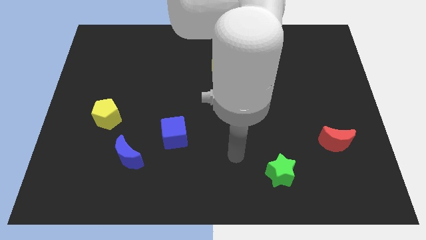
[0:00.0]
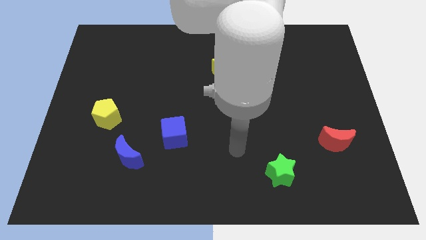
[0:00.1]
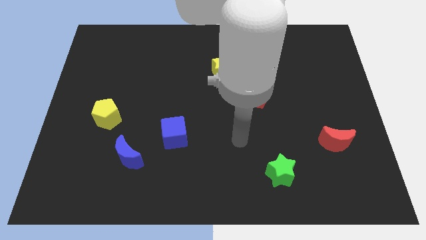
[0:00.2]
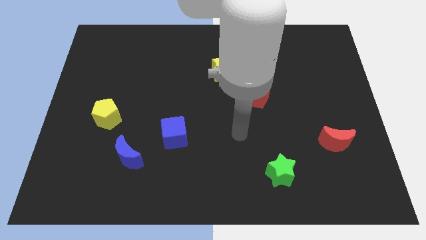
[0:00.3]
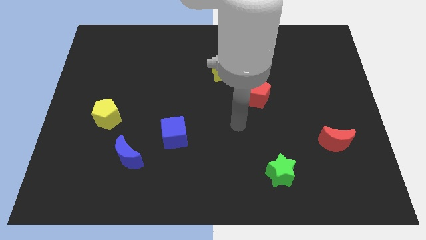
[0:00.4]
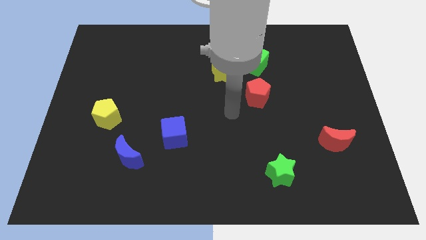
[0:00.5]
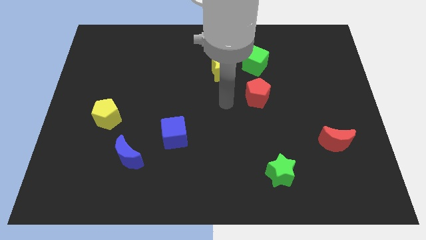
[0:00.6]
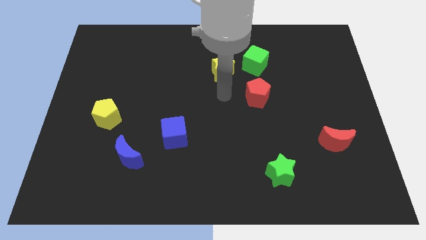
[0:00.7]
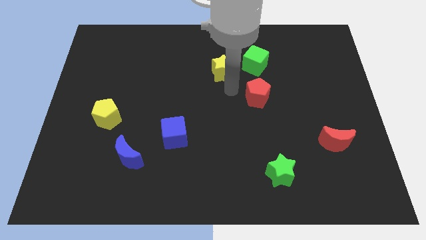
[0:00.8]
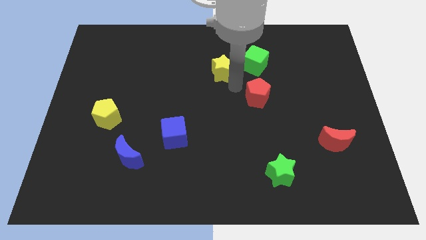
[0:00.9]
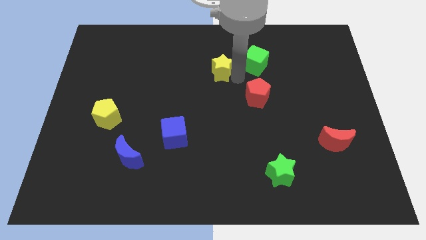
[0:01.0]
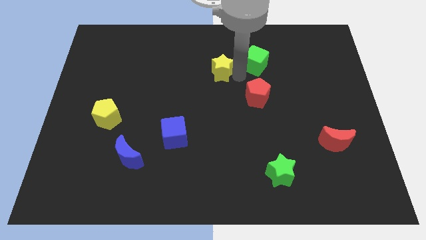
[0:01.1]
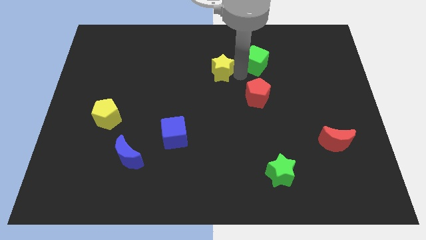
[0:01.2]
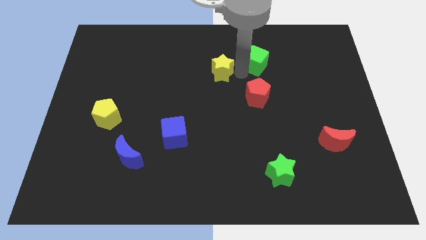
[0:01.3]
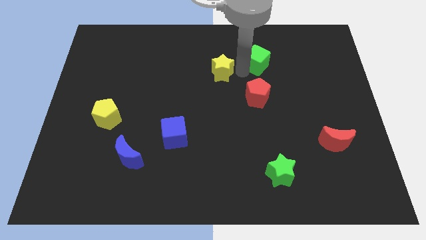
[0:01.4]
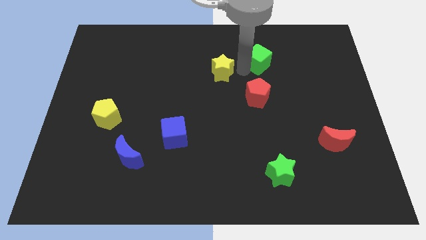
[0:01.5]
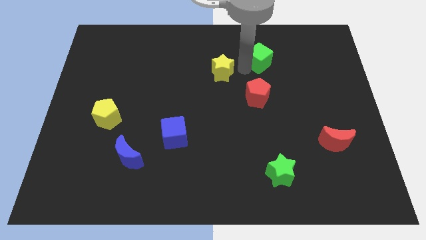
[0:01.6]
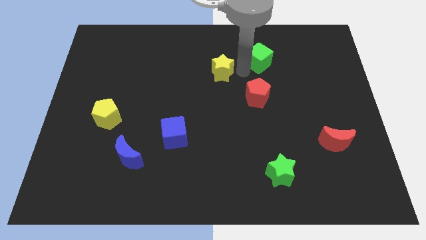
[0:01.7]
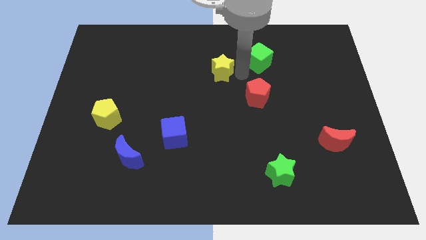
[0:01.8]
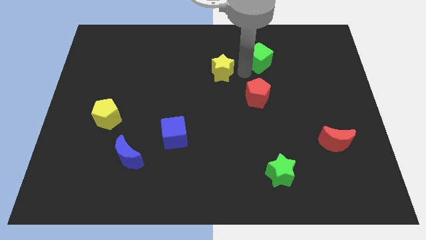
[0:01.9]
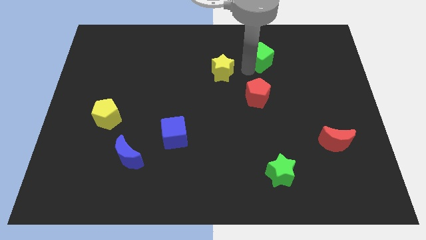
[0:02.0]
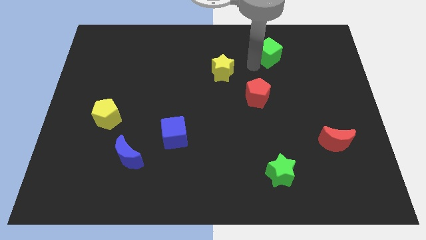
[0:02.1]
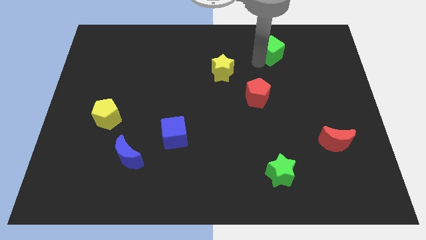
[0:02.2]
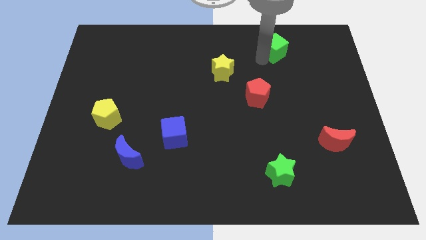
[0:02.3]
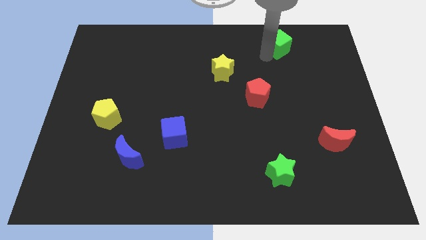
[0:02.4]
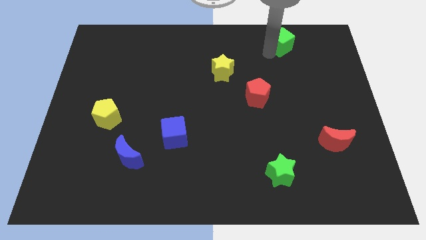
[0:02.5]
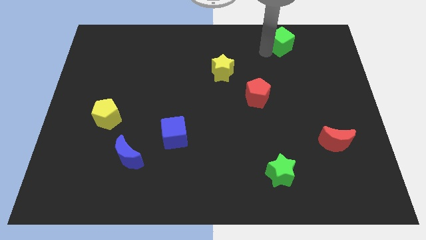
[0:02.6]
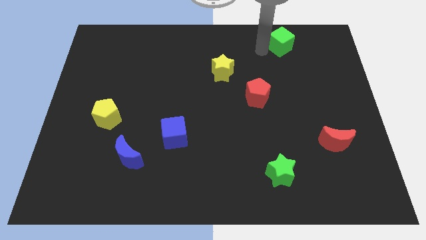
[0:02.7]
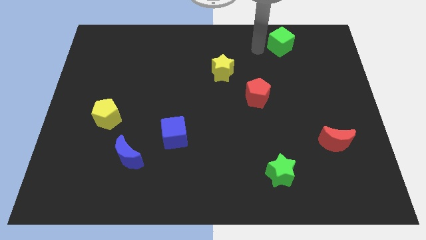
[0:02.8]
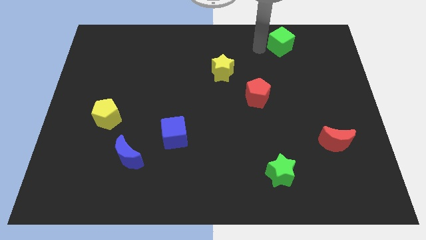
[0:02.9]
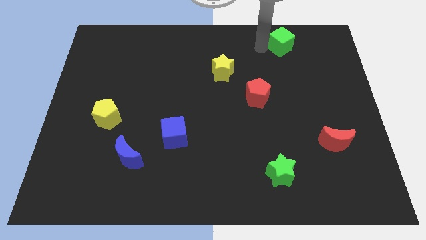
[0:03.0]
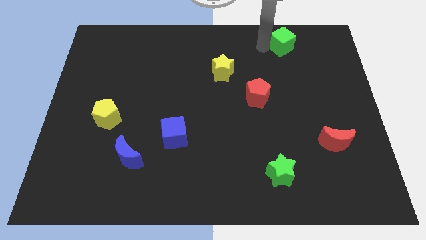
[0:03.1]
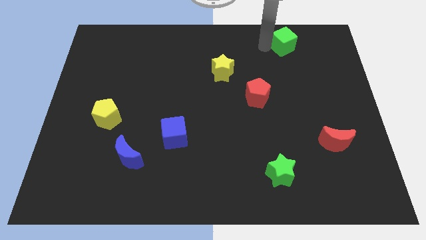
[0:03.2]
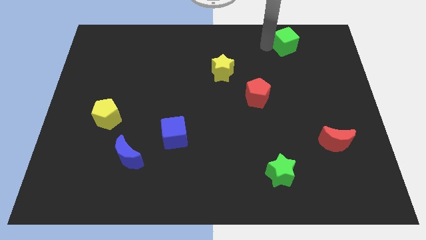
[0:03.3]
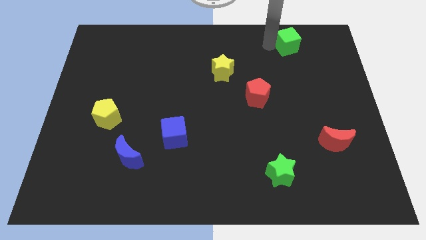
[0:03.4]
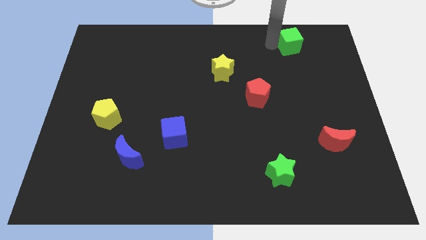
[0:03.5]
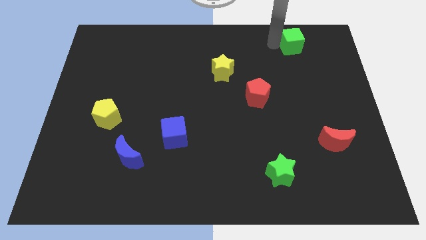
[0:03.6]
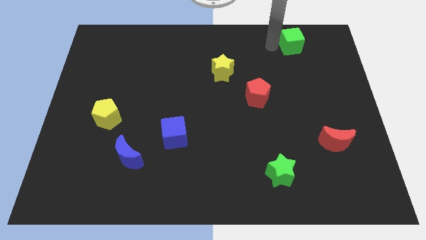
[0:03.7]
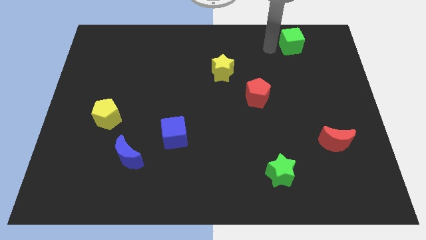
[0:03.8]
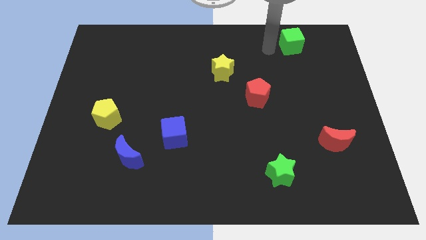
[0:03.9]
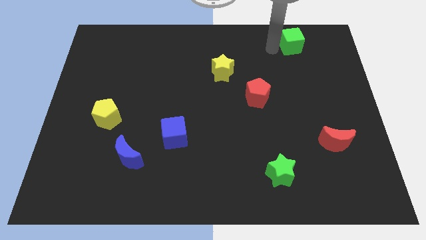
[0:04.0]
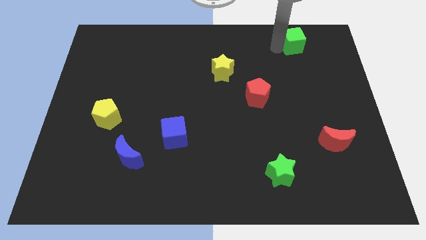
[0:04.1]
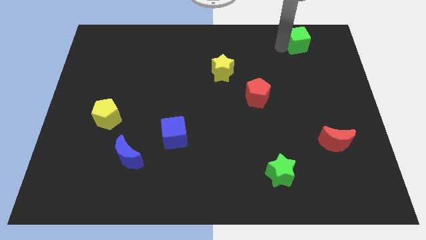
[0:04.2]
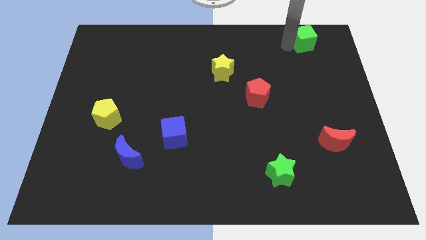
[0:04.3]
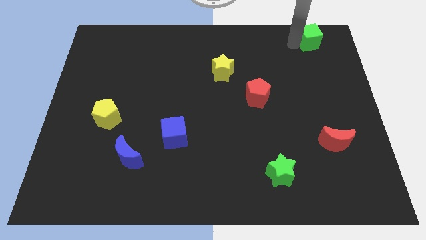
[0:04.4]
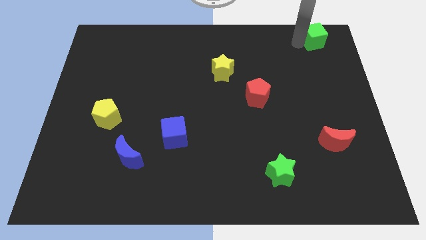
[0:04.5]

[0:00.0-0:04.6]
slide the green cube to the upper right corner

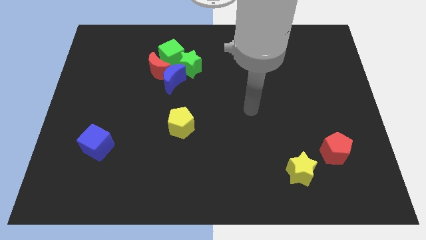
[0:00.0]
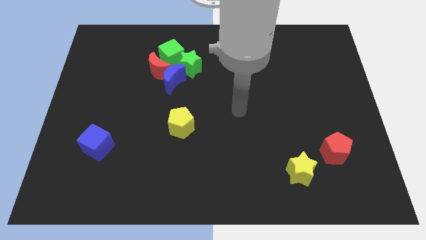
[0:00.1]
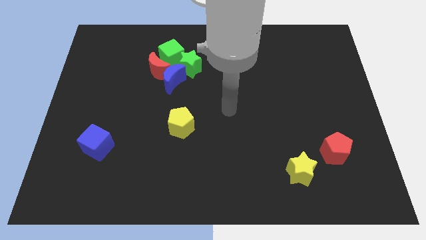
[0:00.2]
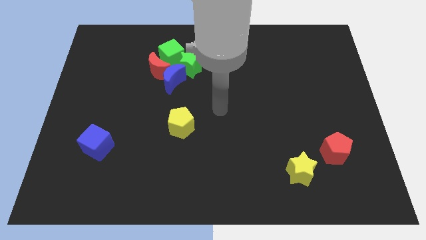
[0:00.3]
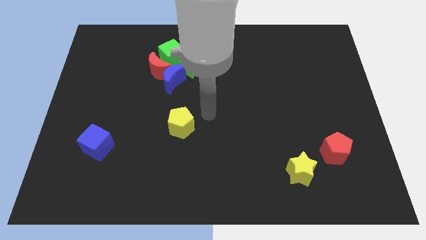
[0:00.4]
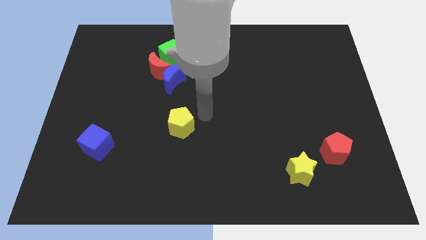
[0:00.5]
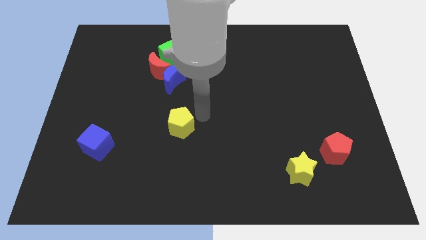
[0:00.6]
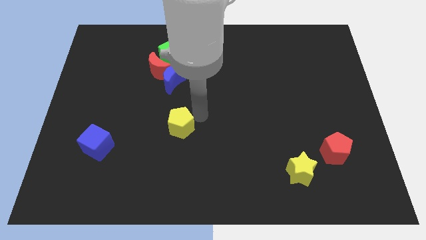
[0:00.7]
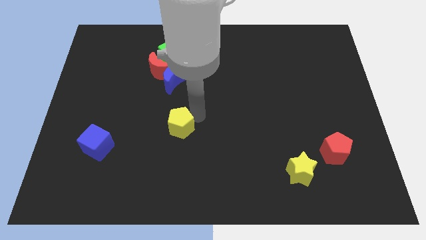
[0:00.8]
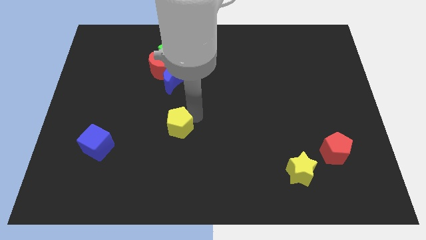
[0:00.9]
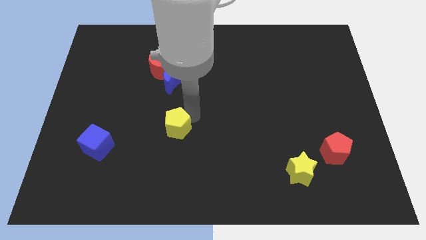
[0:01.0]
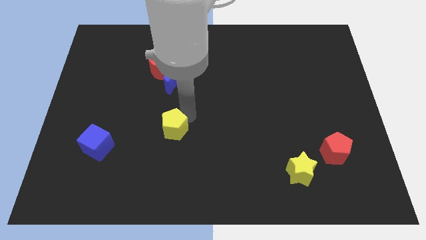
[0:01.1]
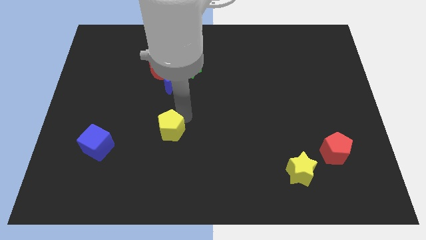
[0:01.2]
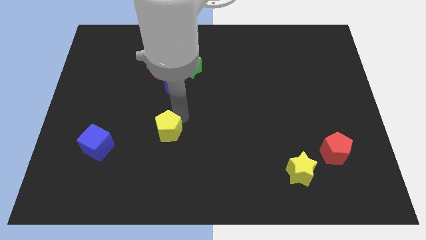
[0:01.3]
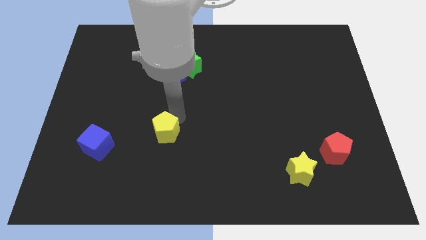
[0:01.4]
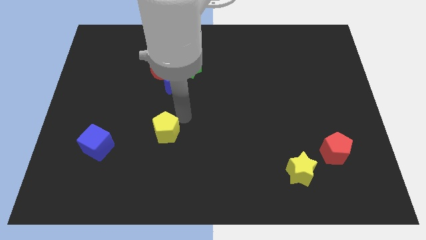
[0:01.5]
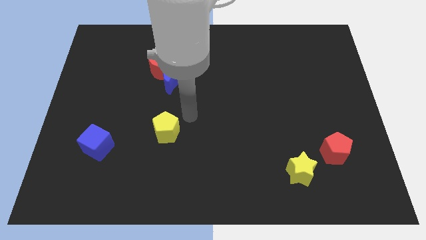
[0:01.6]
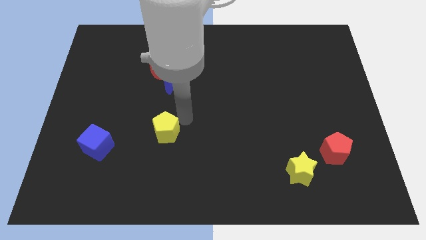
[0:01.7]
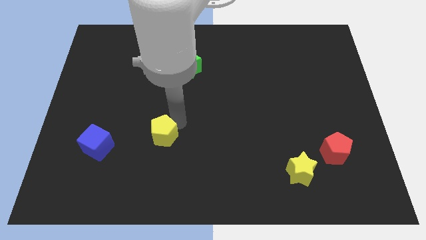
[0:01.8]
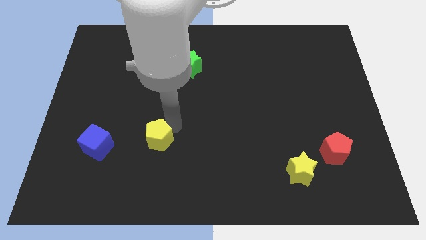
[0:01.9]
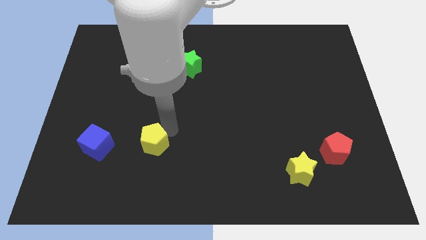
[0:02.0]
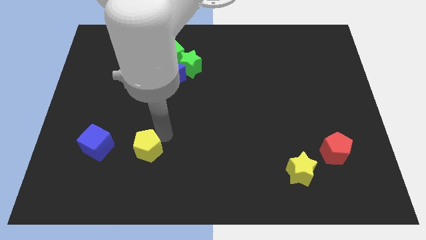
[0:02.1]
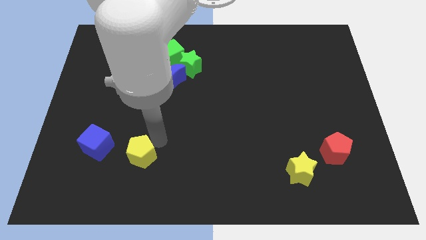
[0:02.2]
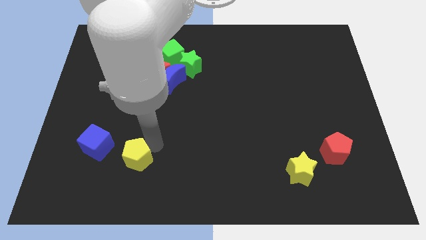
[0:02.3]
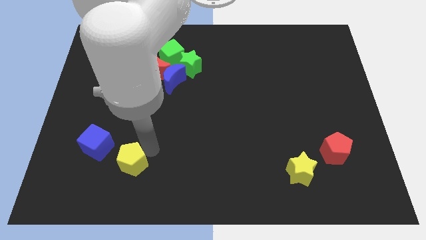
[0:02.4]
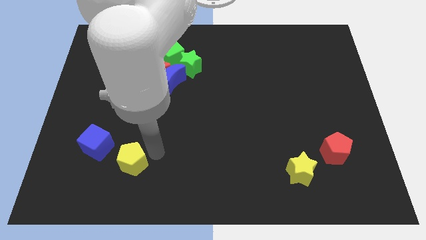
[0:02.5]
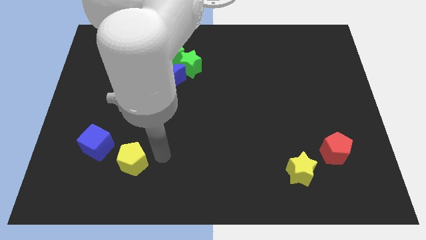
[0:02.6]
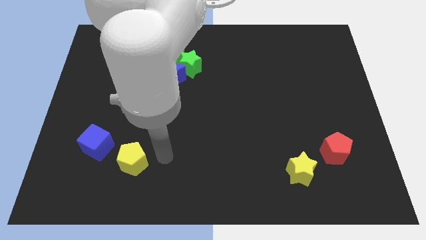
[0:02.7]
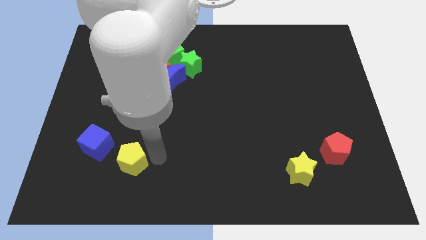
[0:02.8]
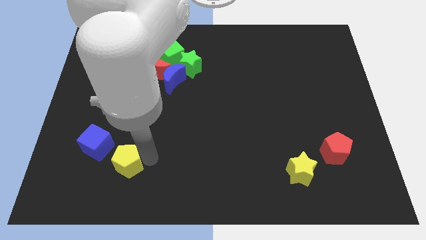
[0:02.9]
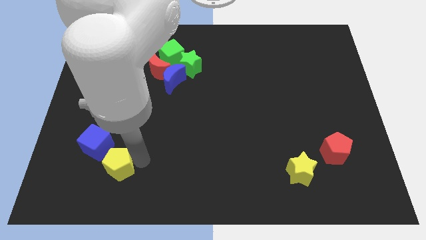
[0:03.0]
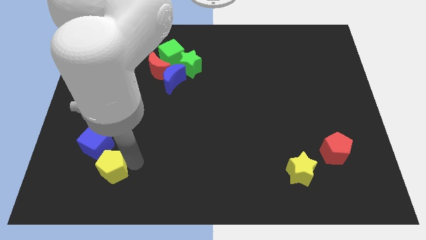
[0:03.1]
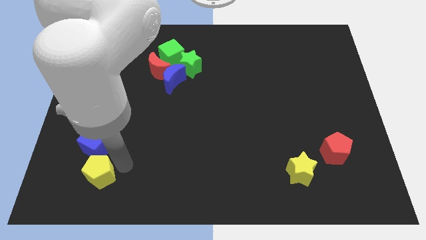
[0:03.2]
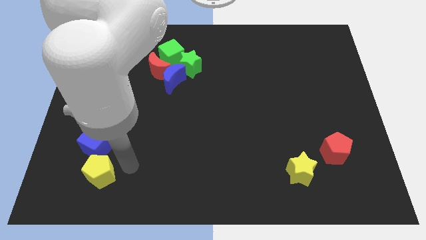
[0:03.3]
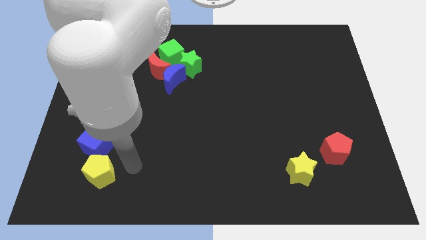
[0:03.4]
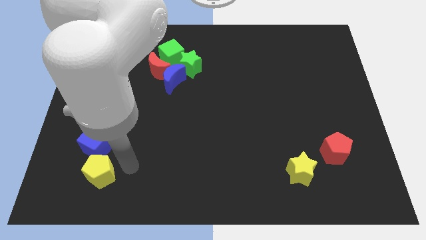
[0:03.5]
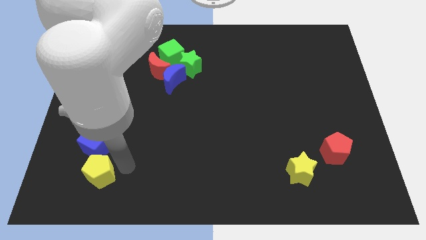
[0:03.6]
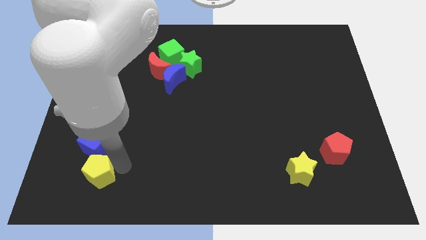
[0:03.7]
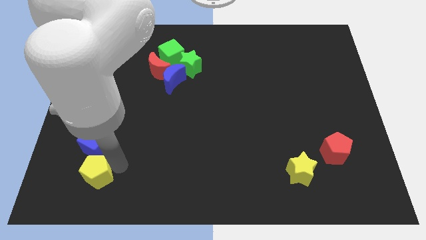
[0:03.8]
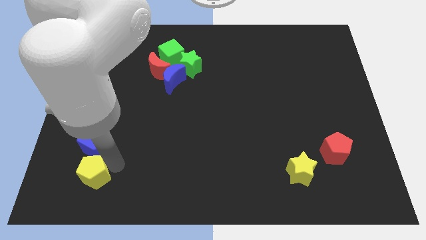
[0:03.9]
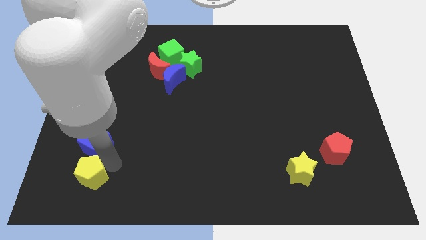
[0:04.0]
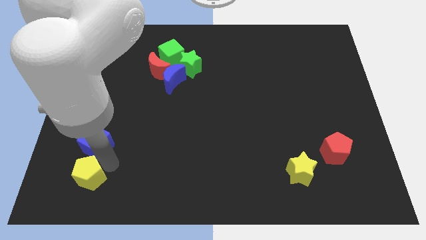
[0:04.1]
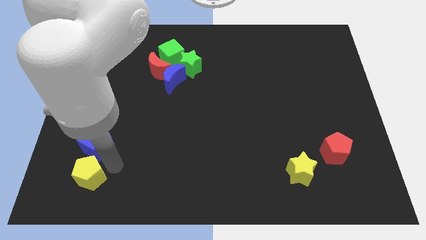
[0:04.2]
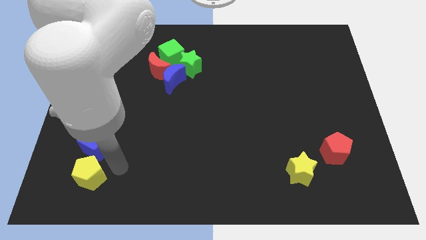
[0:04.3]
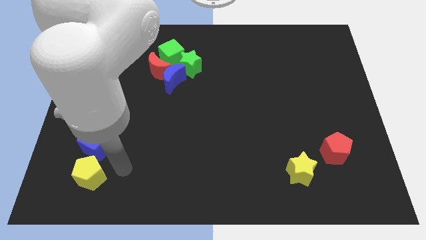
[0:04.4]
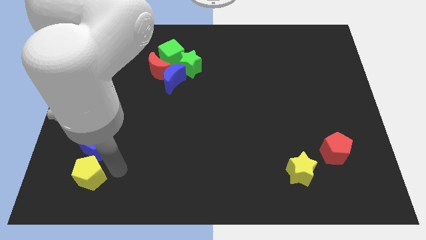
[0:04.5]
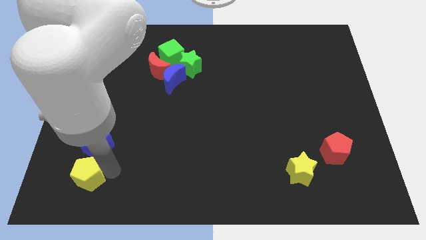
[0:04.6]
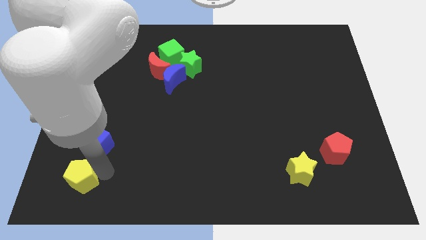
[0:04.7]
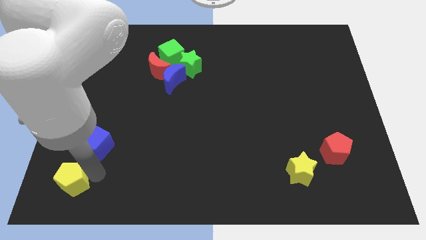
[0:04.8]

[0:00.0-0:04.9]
slide the yellow pentagon to the bottom left
